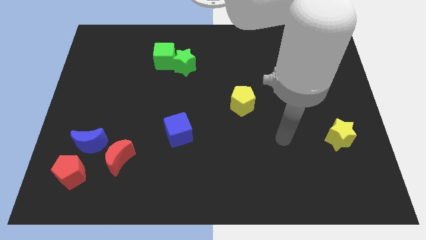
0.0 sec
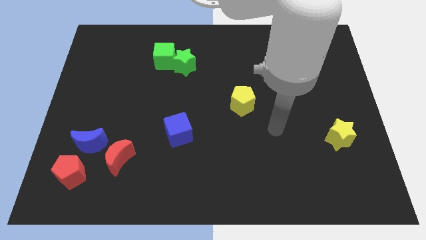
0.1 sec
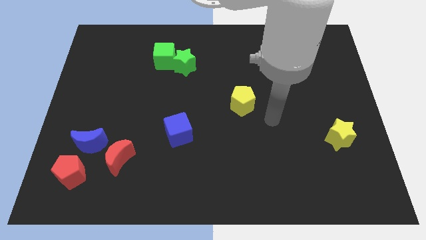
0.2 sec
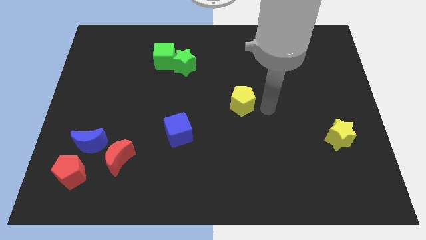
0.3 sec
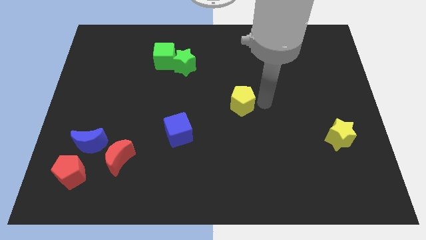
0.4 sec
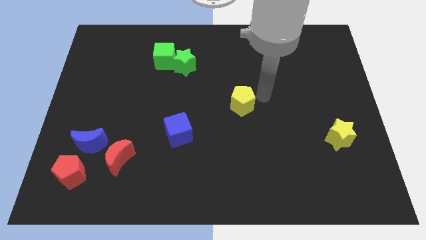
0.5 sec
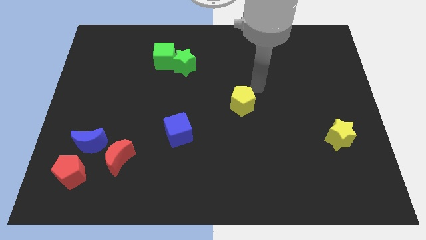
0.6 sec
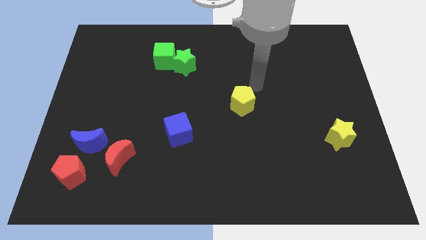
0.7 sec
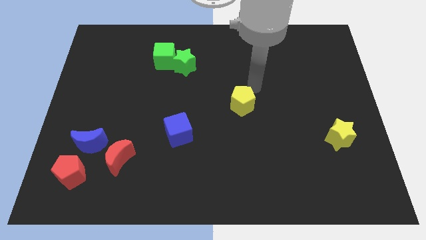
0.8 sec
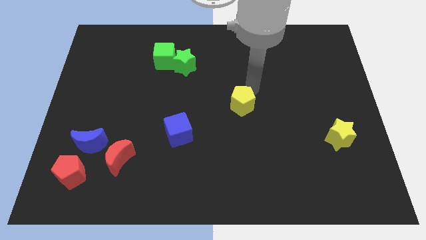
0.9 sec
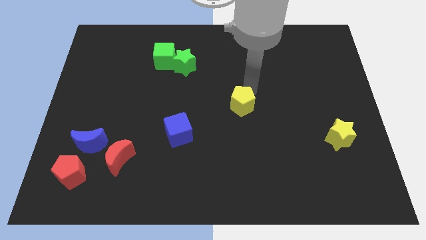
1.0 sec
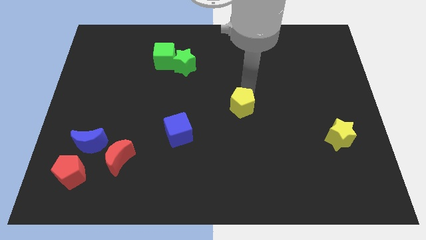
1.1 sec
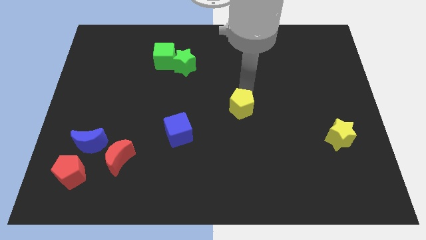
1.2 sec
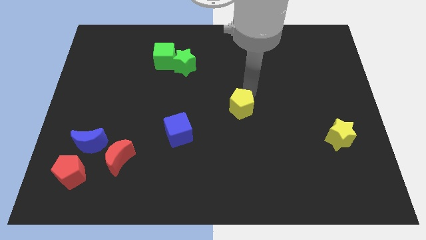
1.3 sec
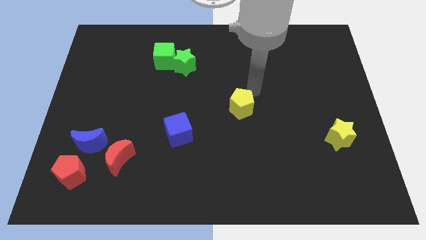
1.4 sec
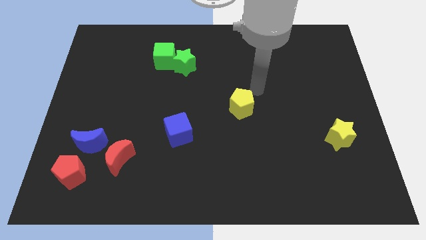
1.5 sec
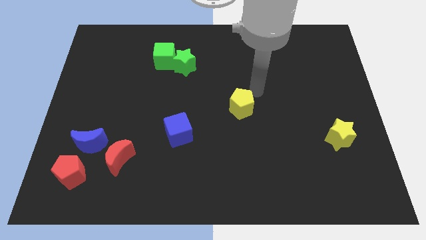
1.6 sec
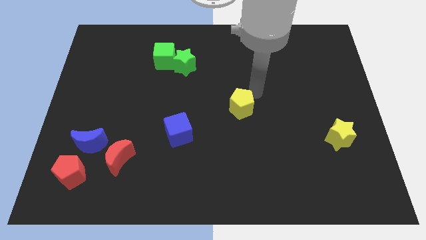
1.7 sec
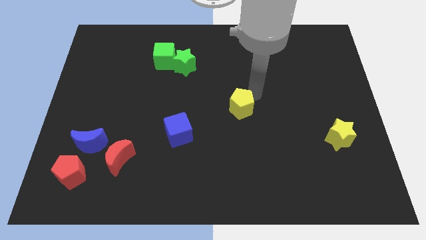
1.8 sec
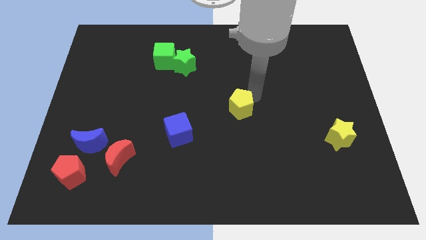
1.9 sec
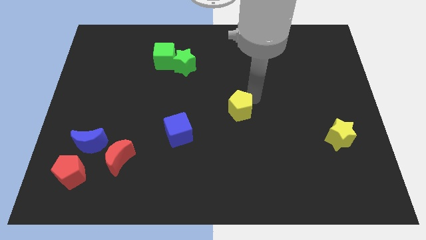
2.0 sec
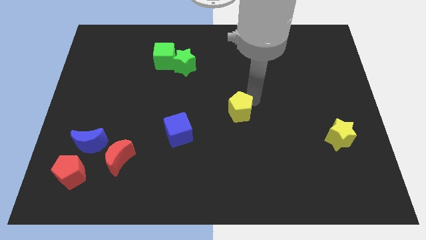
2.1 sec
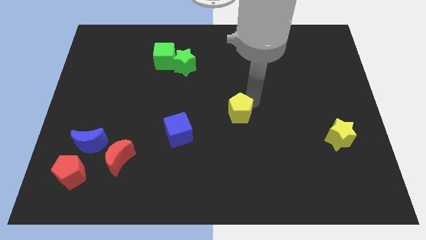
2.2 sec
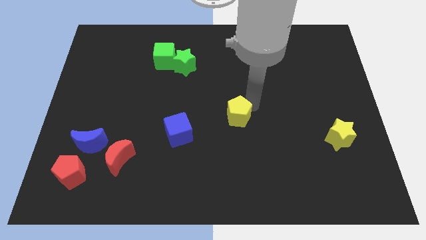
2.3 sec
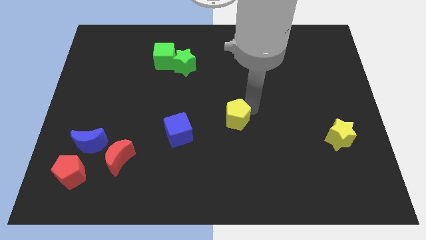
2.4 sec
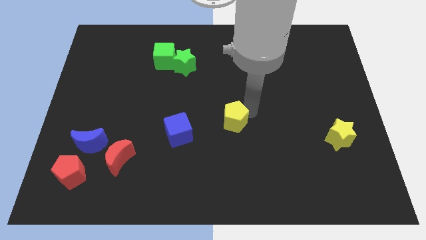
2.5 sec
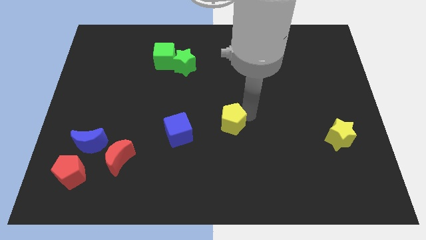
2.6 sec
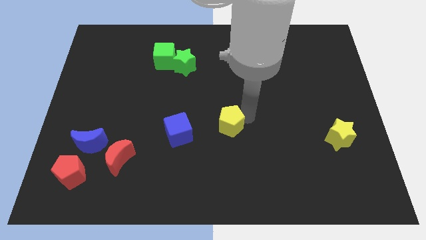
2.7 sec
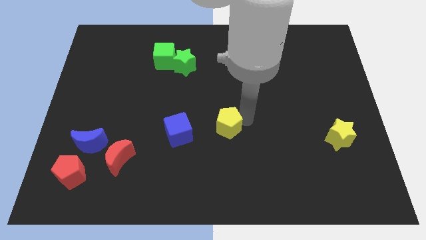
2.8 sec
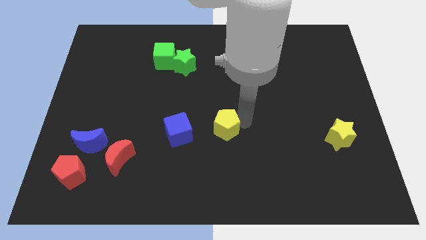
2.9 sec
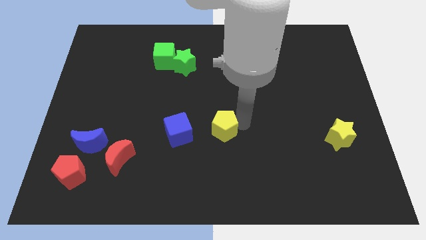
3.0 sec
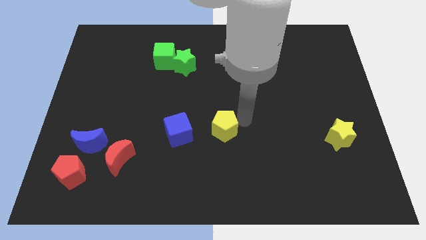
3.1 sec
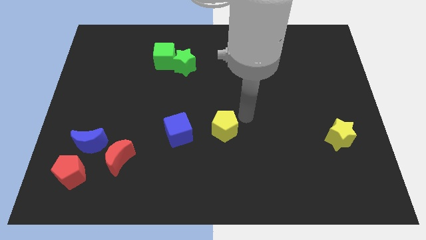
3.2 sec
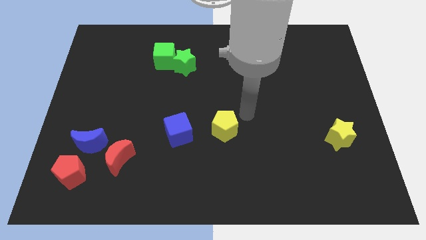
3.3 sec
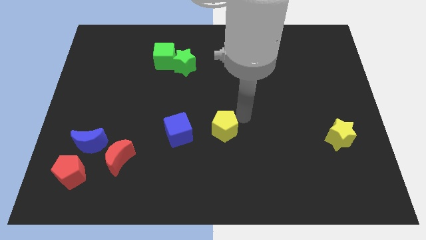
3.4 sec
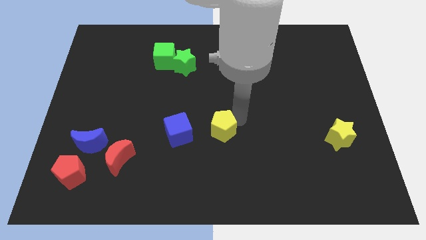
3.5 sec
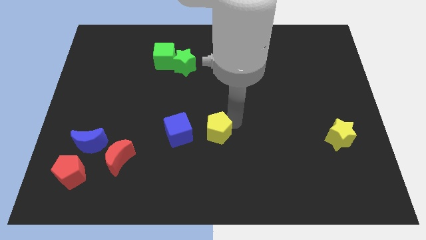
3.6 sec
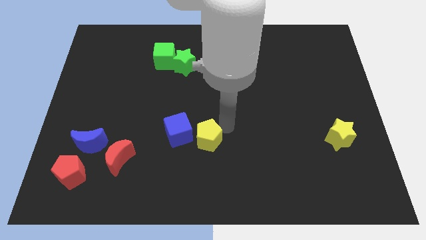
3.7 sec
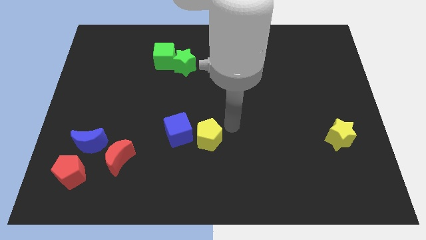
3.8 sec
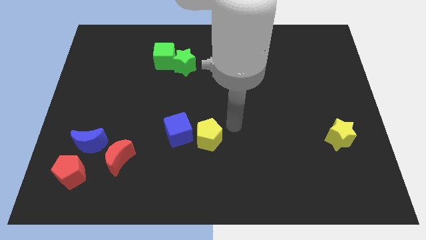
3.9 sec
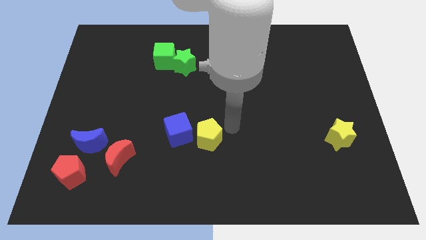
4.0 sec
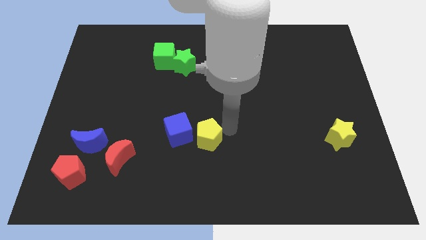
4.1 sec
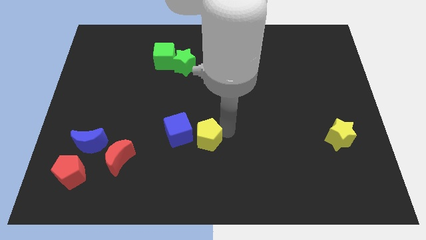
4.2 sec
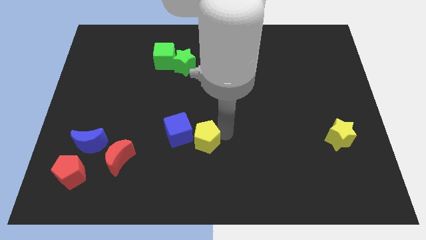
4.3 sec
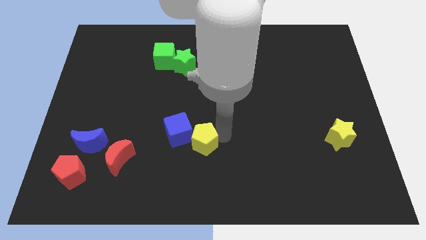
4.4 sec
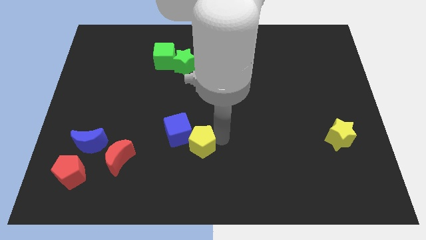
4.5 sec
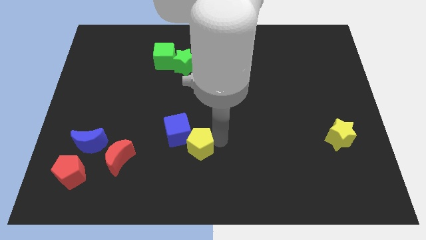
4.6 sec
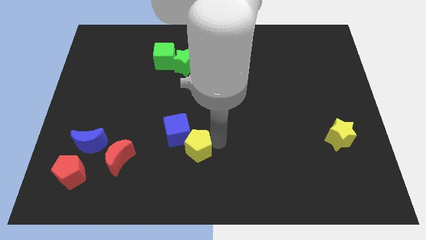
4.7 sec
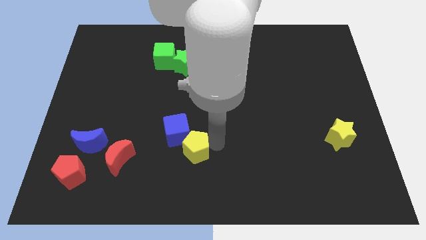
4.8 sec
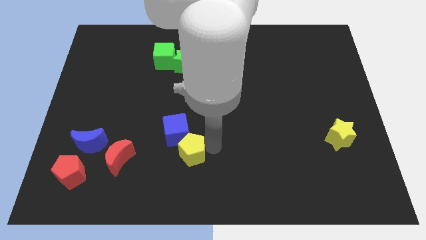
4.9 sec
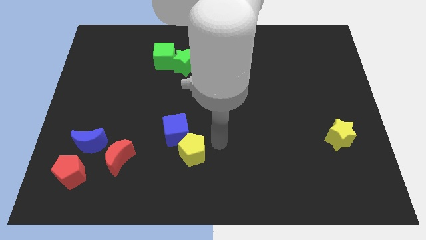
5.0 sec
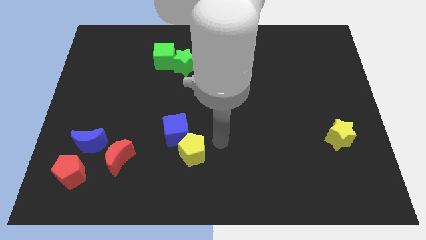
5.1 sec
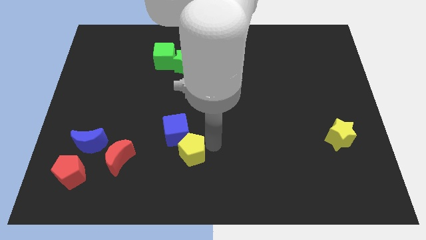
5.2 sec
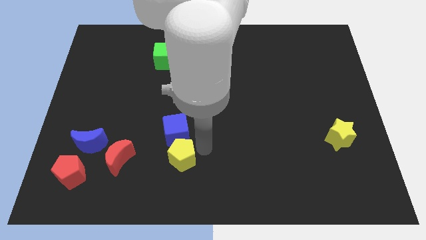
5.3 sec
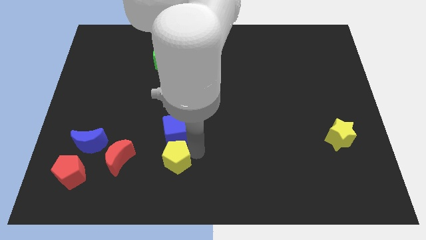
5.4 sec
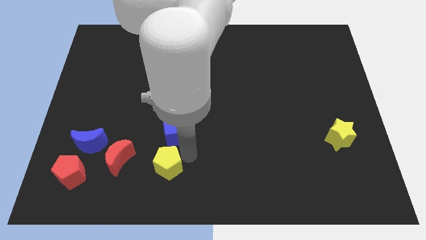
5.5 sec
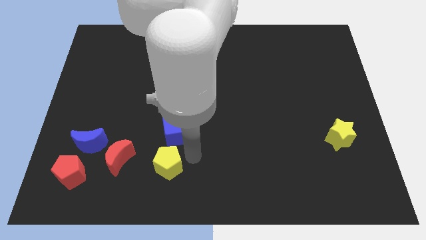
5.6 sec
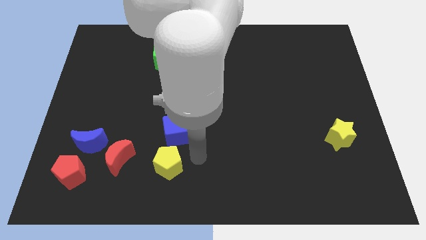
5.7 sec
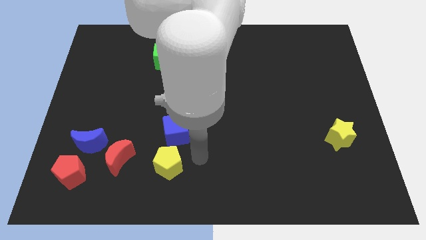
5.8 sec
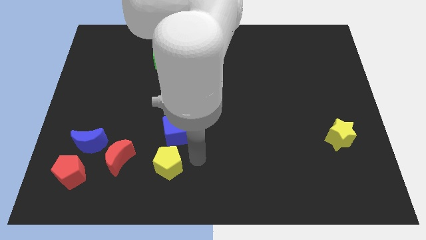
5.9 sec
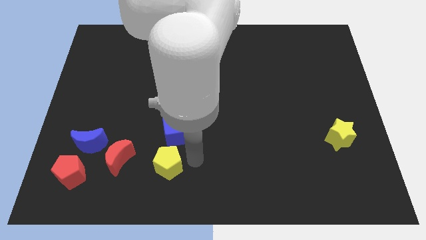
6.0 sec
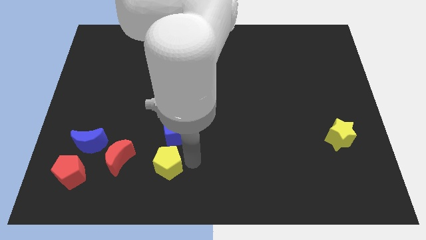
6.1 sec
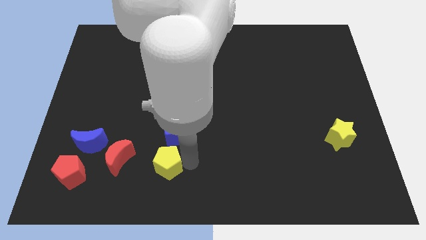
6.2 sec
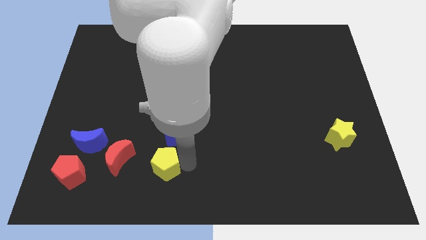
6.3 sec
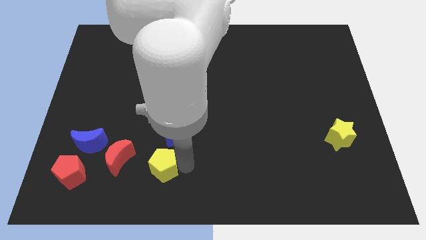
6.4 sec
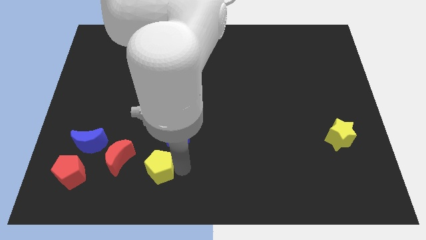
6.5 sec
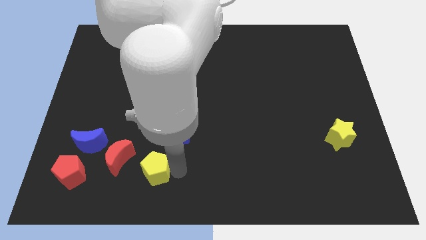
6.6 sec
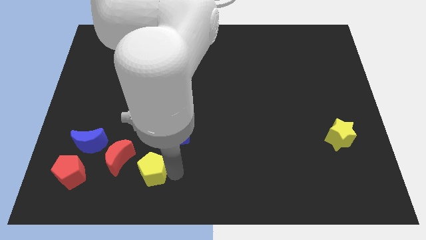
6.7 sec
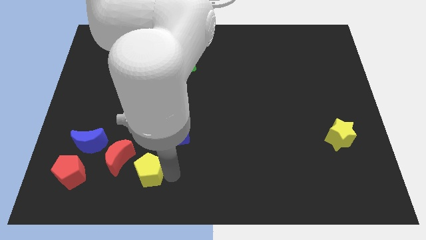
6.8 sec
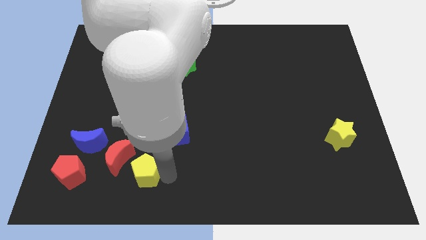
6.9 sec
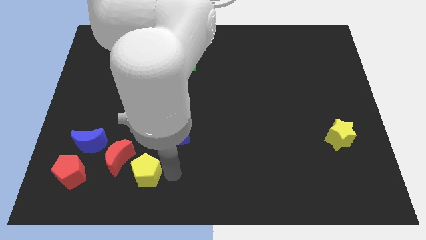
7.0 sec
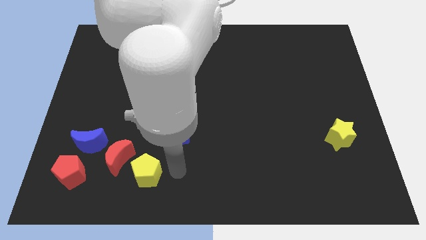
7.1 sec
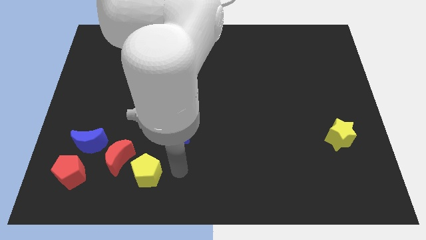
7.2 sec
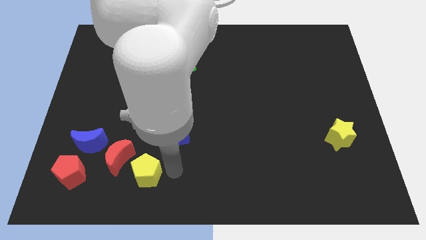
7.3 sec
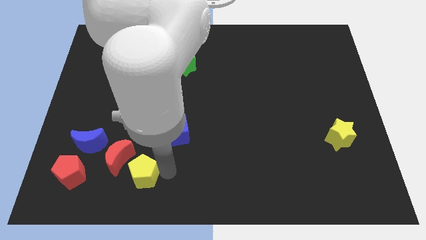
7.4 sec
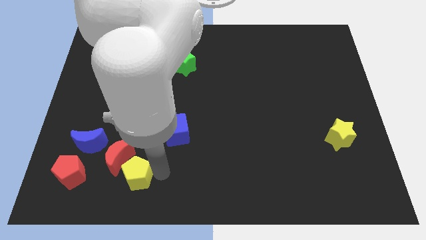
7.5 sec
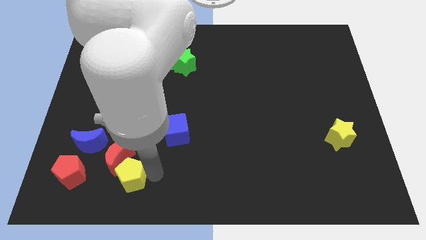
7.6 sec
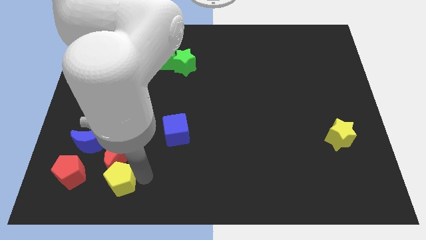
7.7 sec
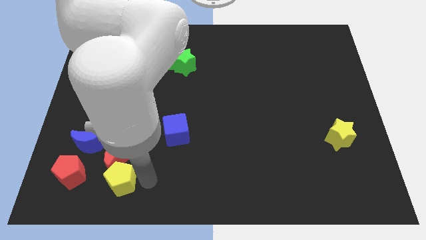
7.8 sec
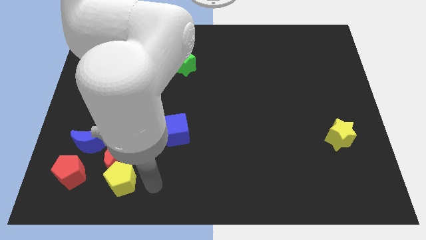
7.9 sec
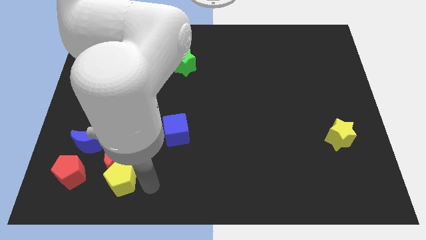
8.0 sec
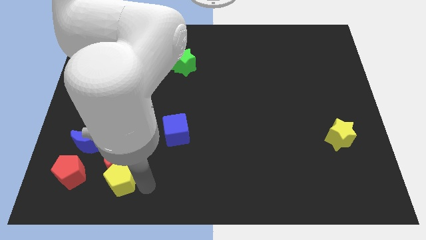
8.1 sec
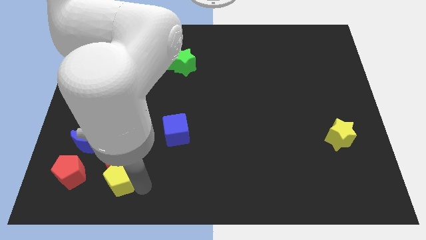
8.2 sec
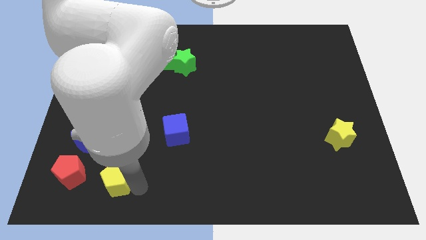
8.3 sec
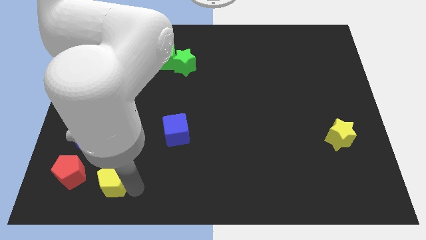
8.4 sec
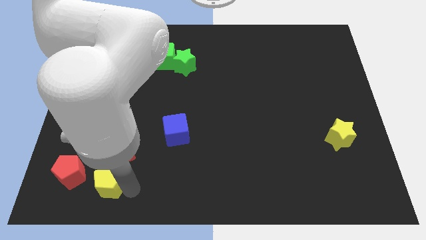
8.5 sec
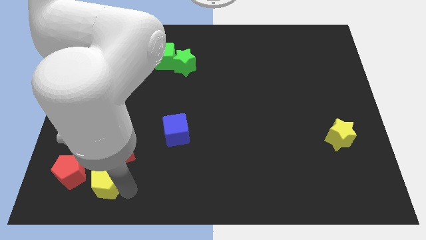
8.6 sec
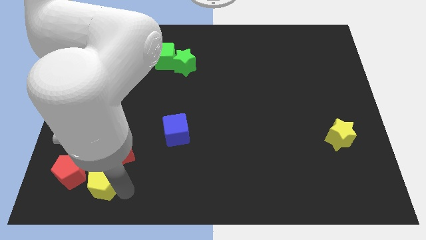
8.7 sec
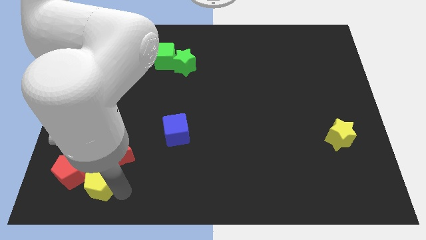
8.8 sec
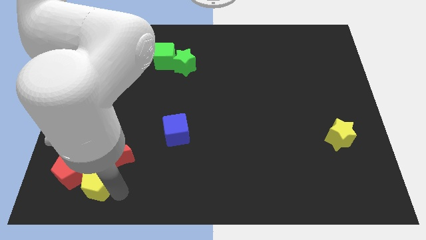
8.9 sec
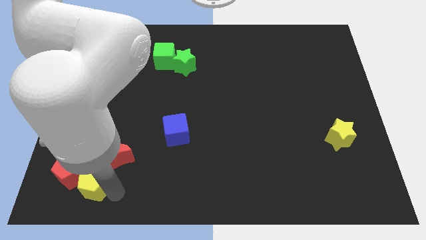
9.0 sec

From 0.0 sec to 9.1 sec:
slide the yellow pentagon next to the red pentagon
